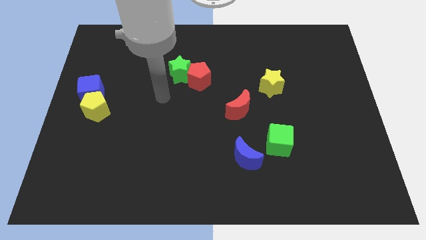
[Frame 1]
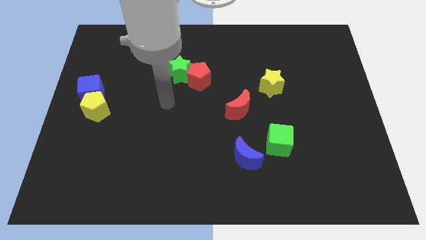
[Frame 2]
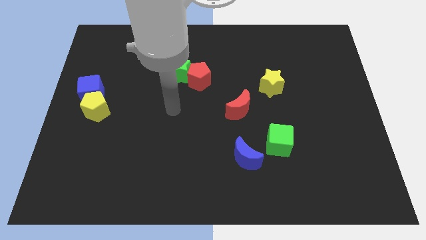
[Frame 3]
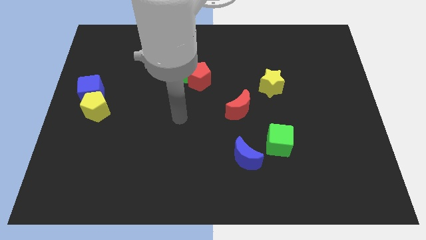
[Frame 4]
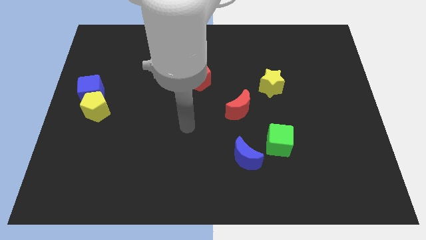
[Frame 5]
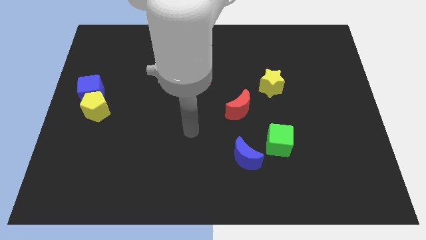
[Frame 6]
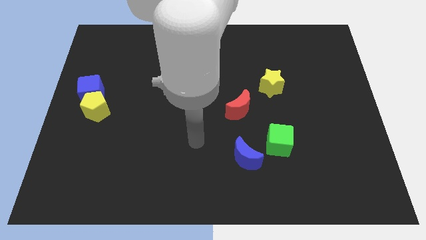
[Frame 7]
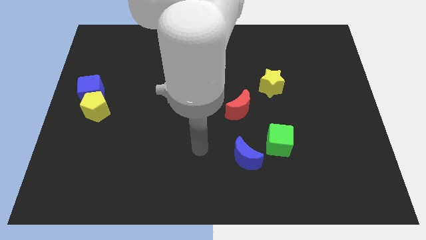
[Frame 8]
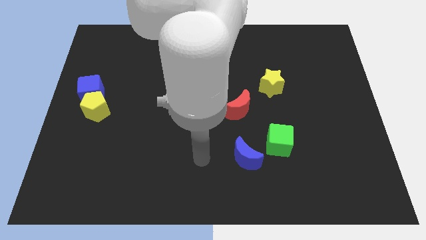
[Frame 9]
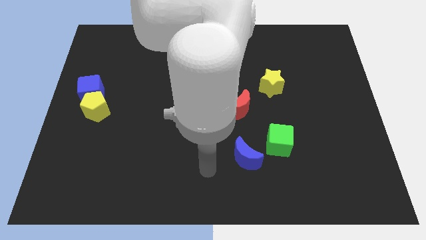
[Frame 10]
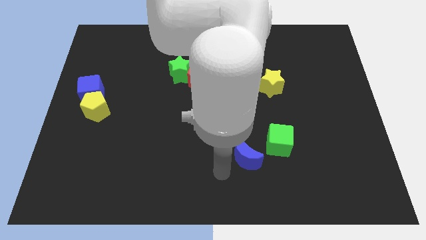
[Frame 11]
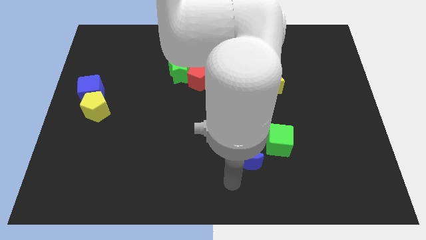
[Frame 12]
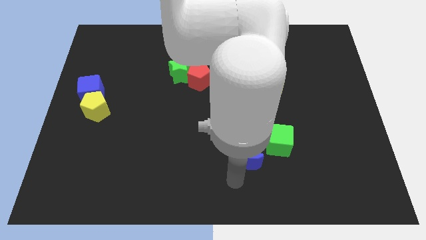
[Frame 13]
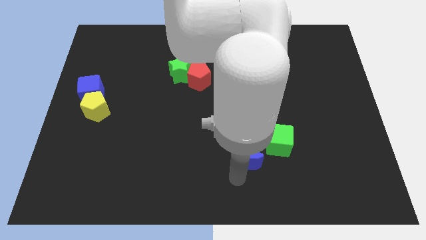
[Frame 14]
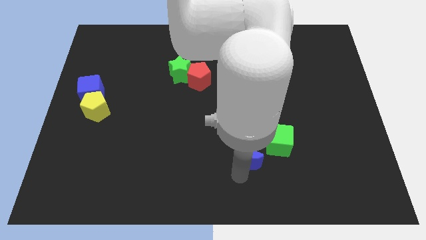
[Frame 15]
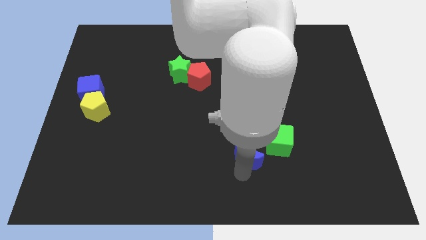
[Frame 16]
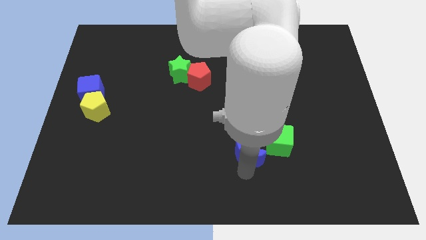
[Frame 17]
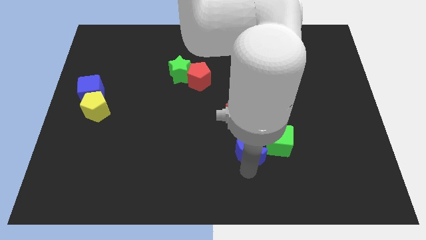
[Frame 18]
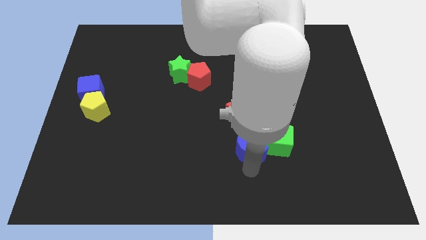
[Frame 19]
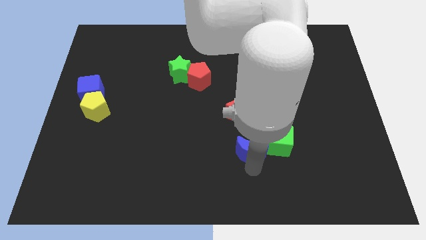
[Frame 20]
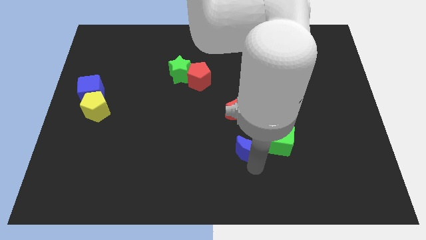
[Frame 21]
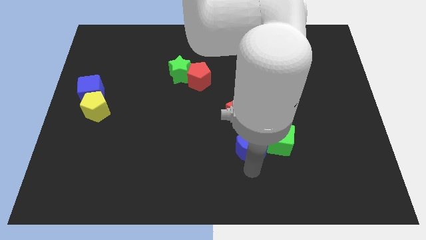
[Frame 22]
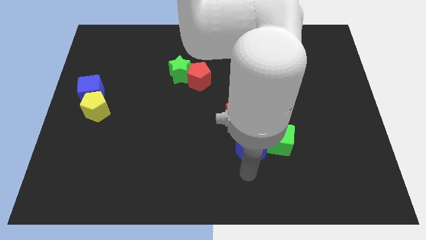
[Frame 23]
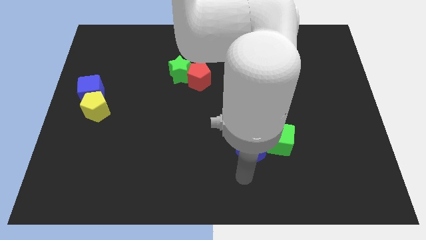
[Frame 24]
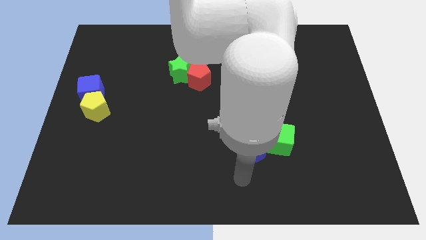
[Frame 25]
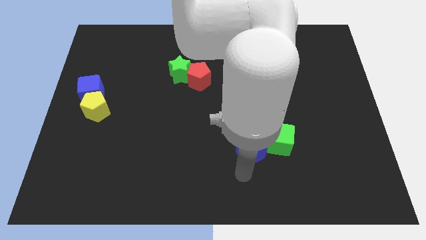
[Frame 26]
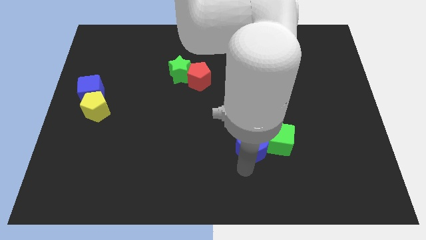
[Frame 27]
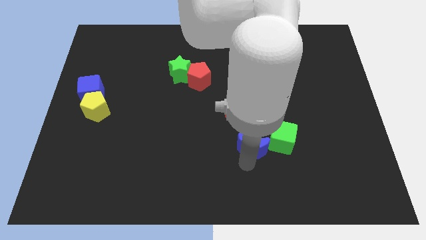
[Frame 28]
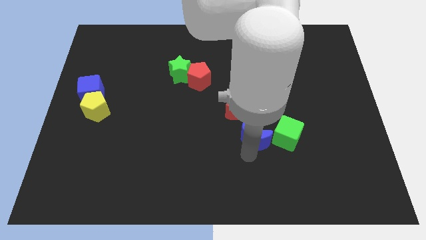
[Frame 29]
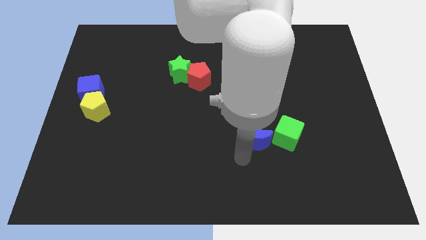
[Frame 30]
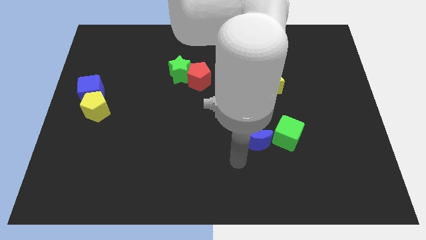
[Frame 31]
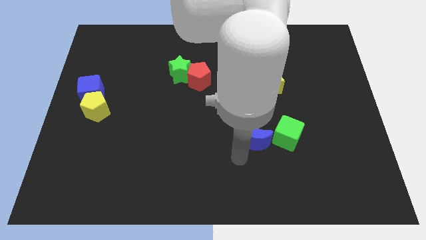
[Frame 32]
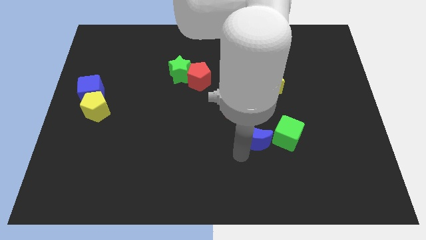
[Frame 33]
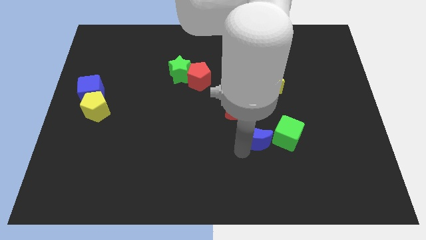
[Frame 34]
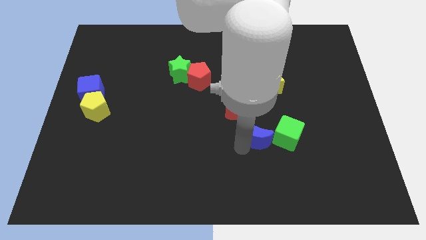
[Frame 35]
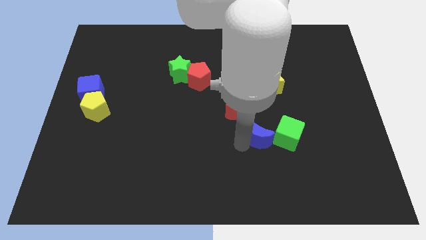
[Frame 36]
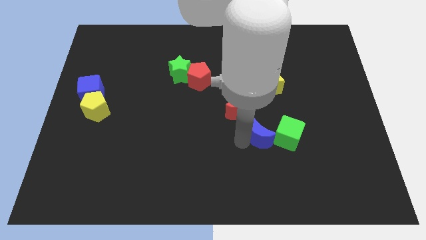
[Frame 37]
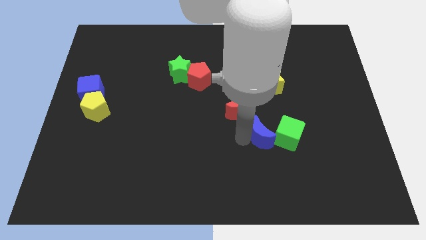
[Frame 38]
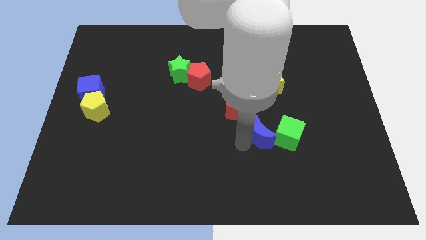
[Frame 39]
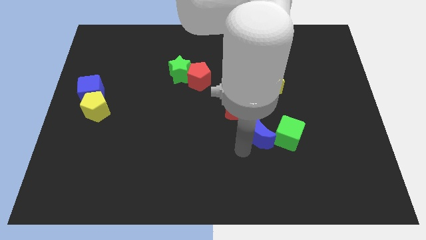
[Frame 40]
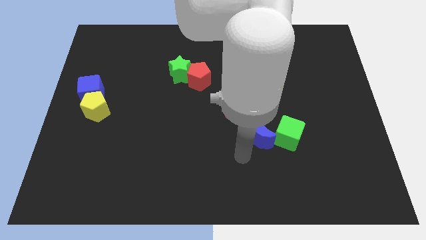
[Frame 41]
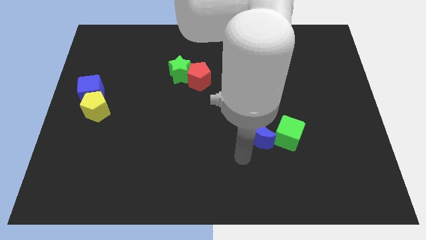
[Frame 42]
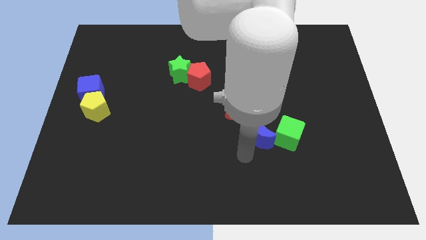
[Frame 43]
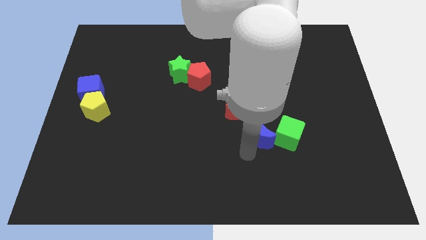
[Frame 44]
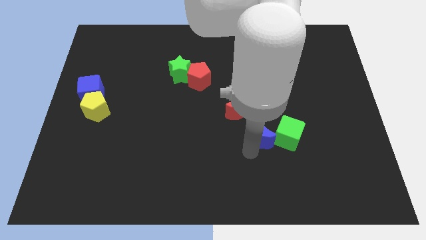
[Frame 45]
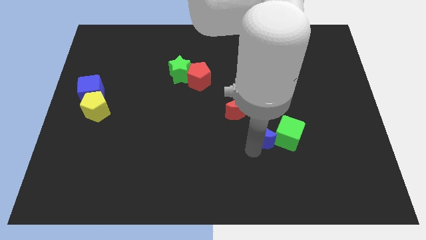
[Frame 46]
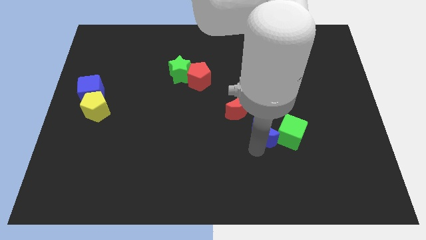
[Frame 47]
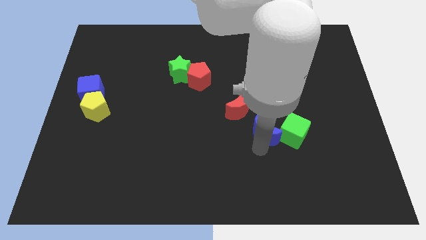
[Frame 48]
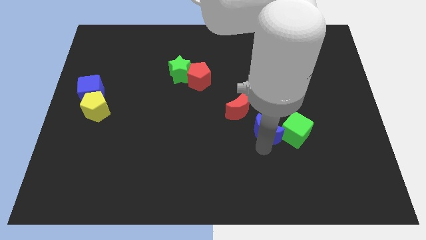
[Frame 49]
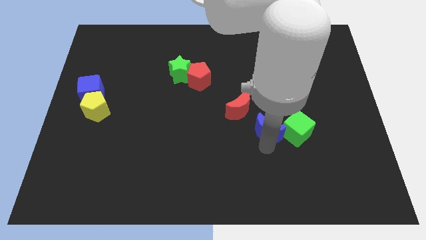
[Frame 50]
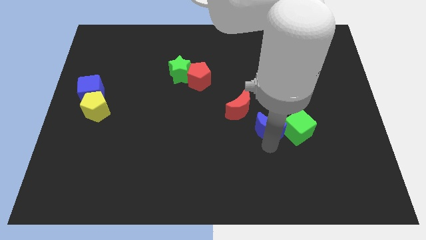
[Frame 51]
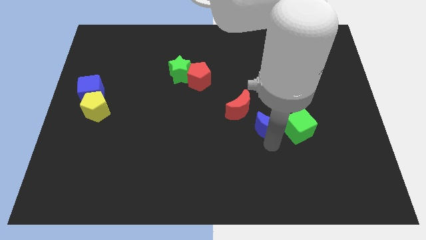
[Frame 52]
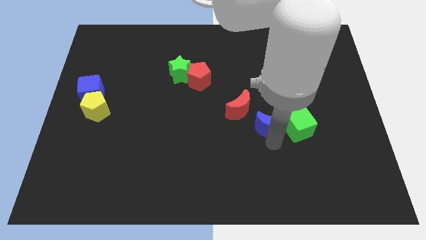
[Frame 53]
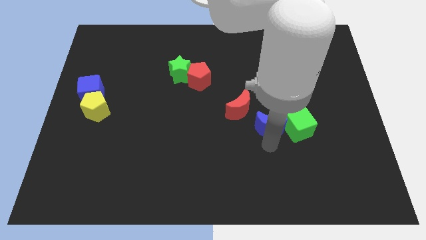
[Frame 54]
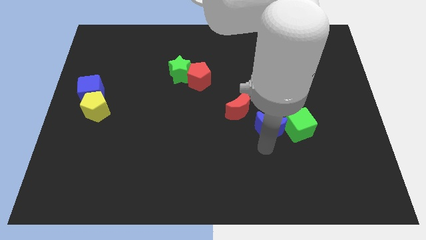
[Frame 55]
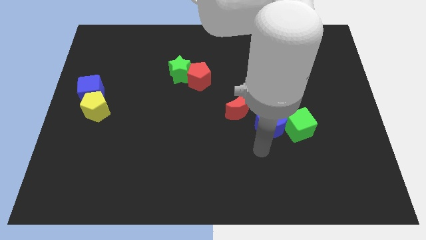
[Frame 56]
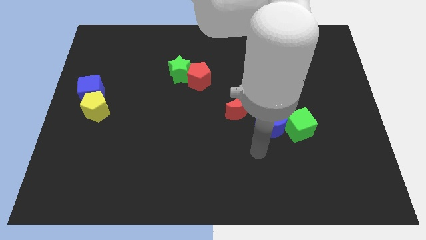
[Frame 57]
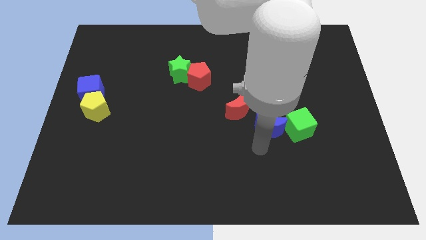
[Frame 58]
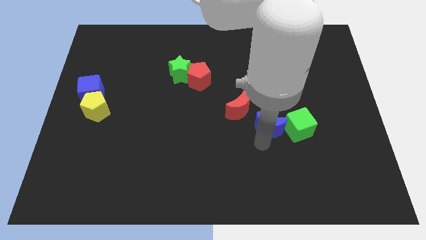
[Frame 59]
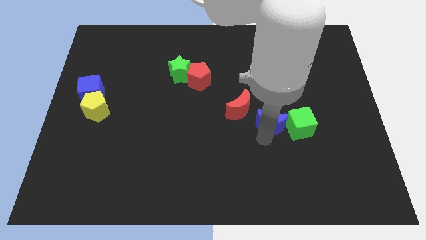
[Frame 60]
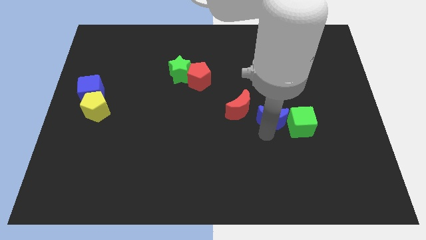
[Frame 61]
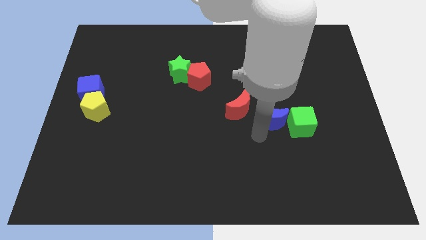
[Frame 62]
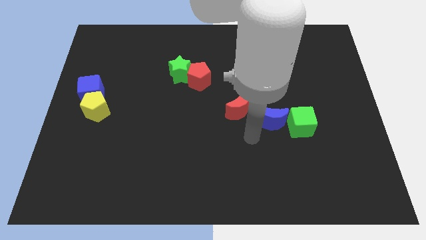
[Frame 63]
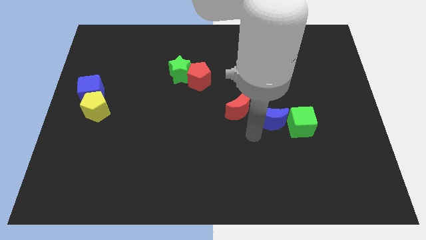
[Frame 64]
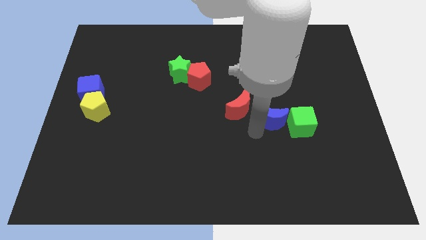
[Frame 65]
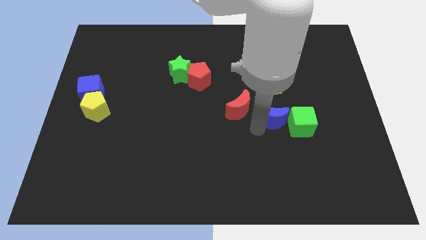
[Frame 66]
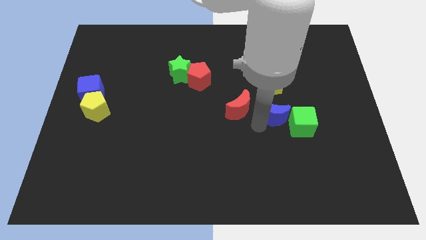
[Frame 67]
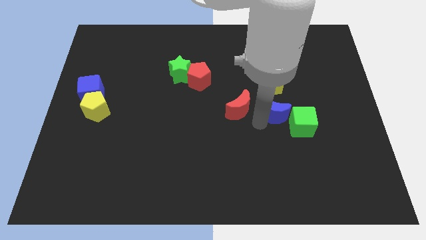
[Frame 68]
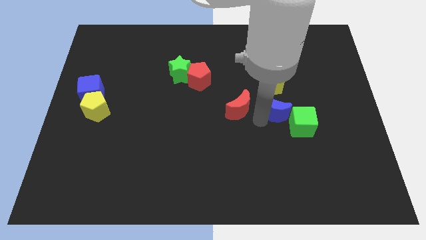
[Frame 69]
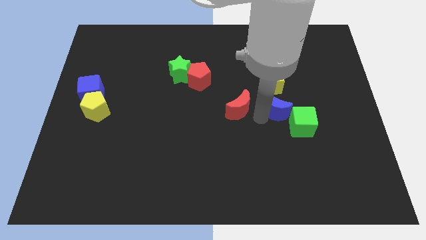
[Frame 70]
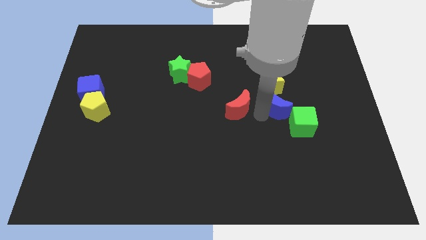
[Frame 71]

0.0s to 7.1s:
move the blue moon diagonally down and to the right of the yellow star
